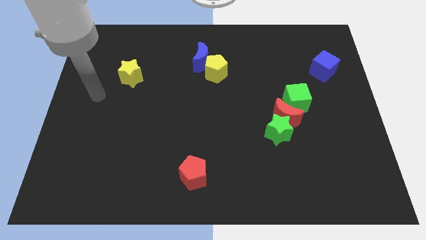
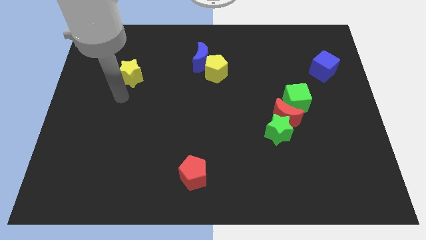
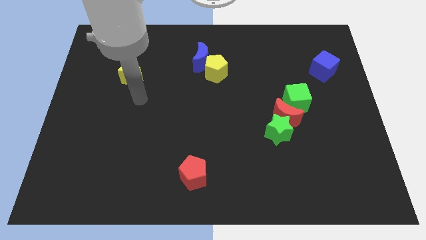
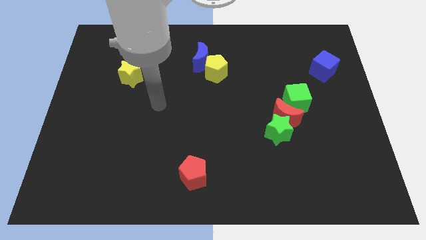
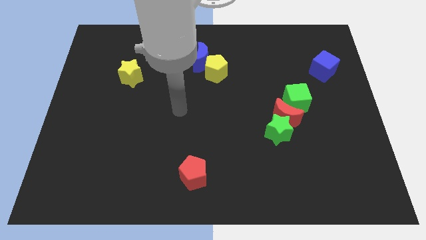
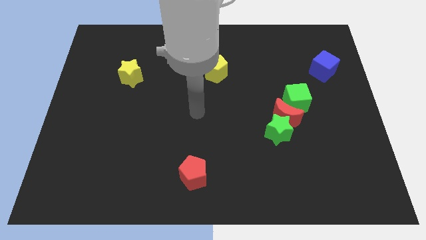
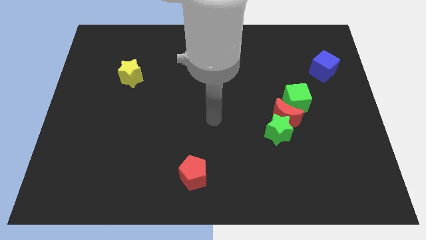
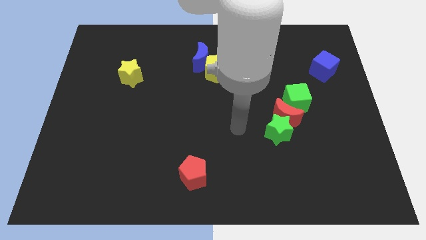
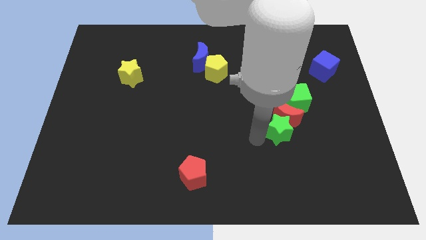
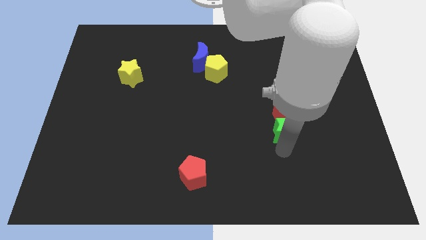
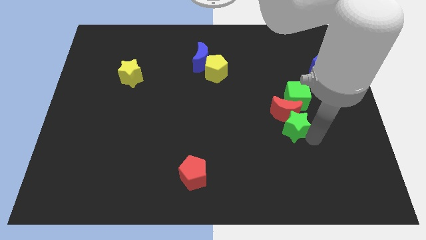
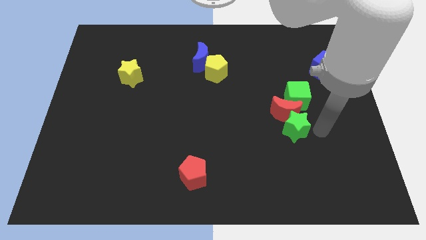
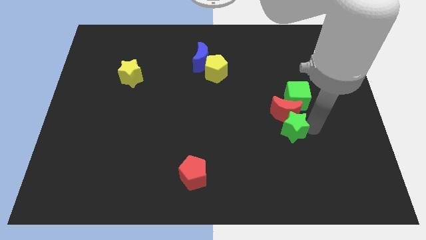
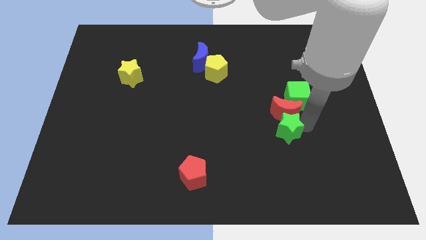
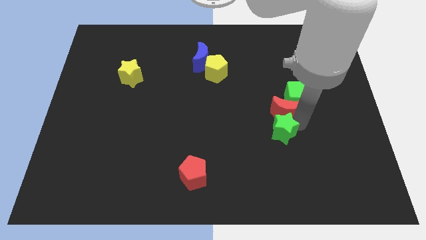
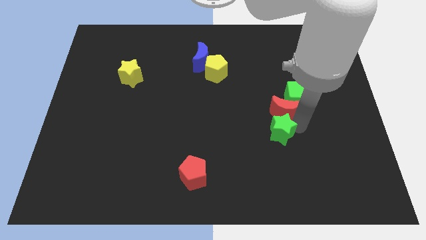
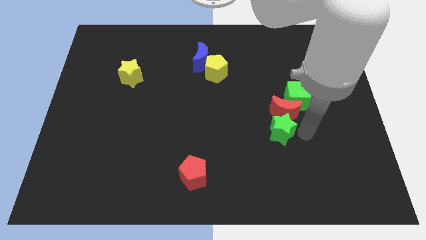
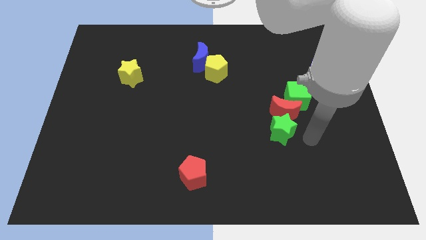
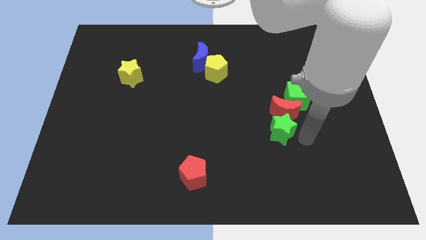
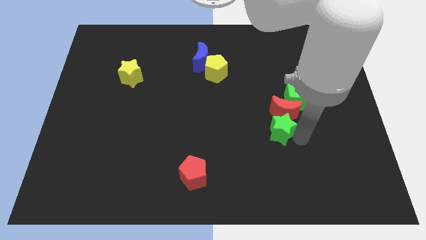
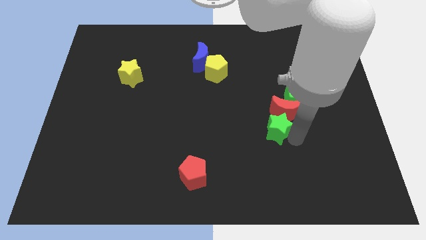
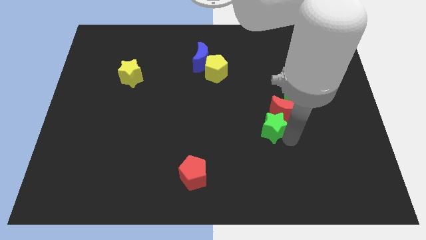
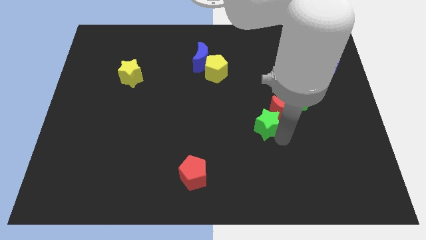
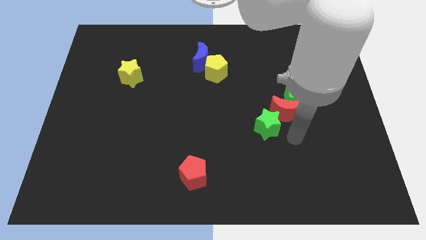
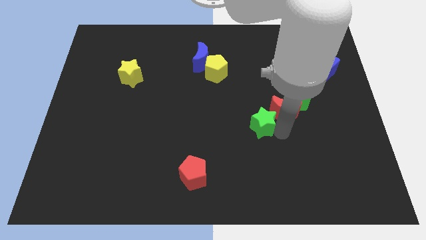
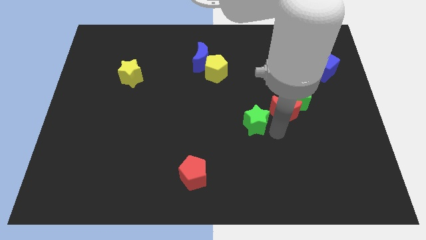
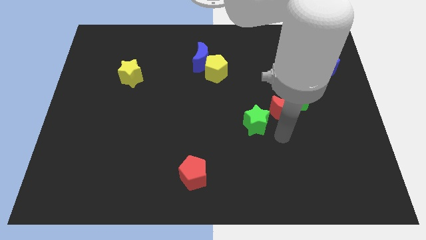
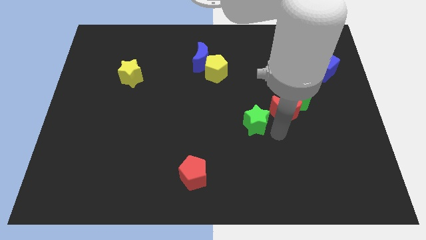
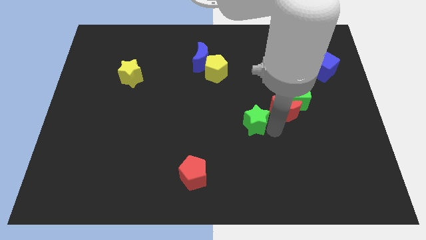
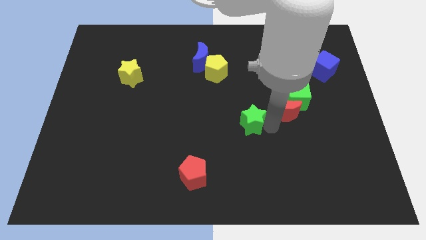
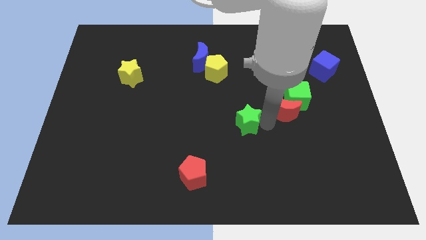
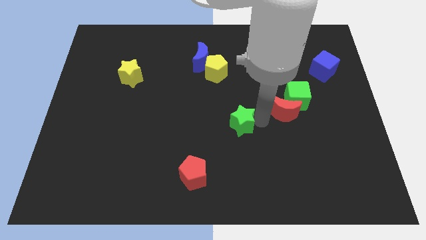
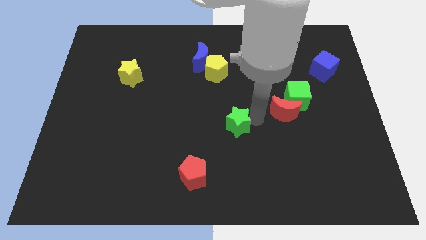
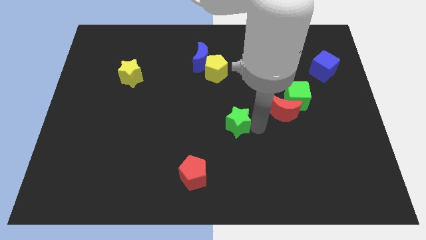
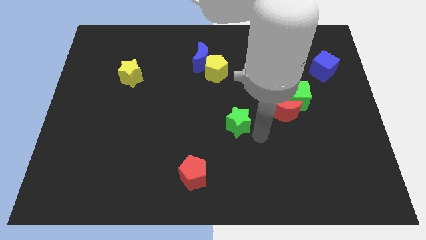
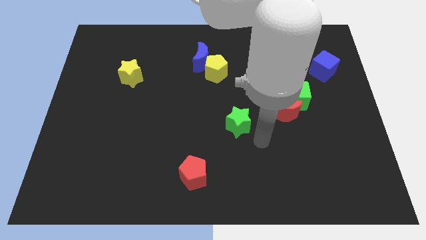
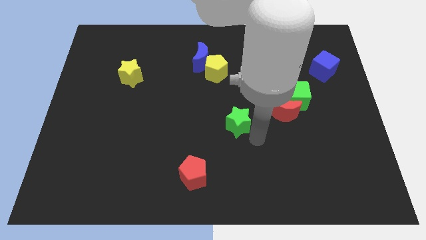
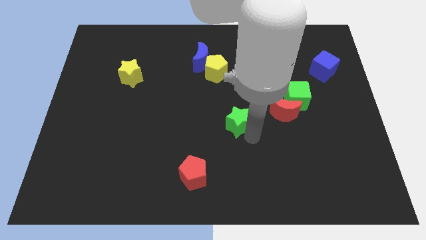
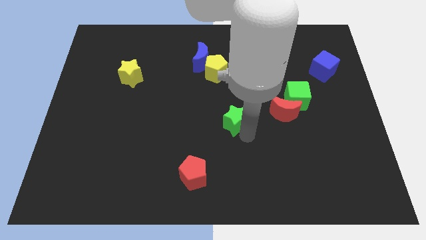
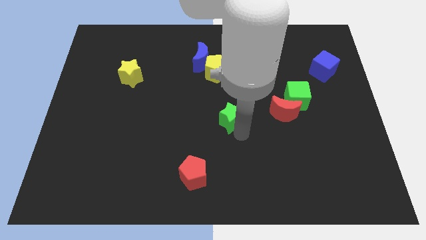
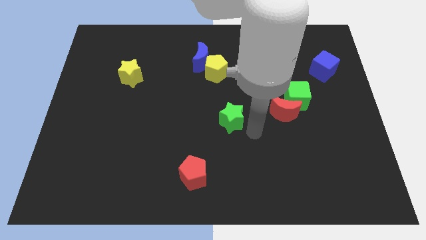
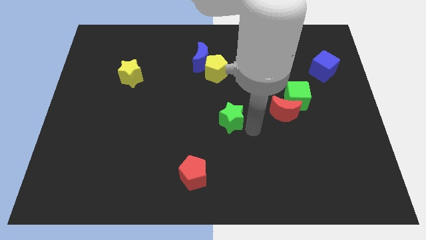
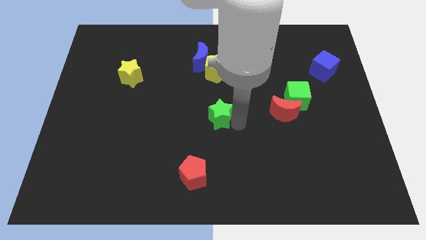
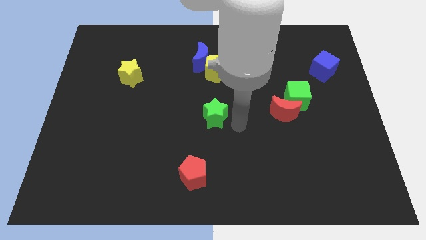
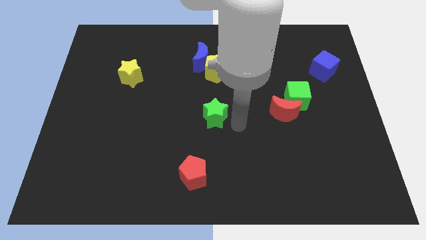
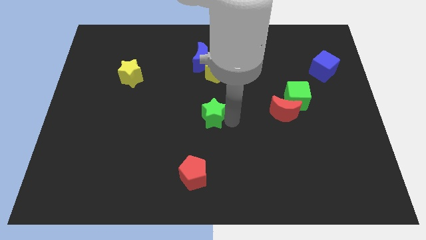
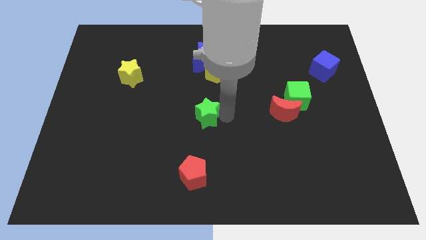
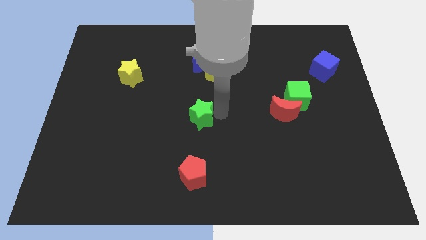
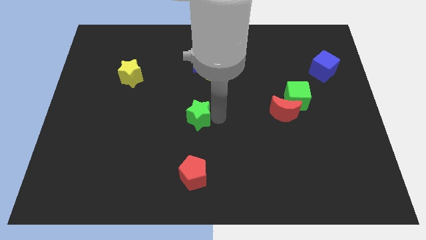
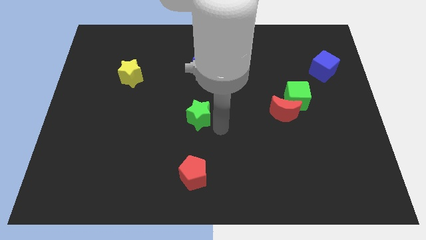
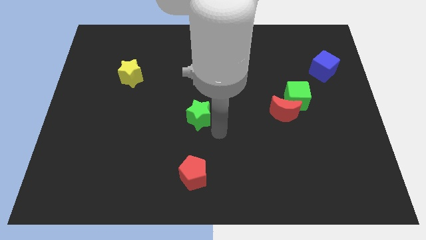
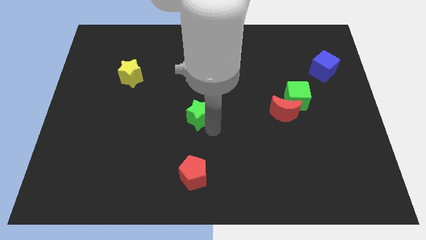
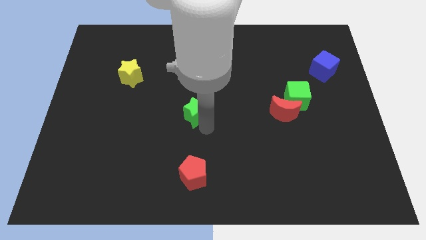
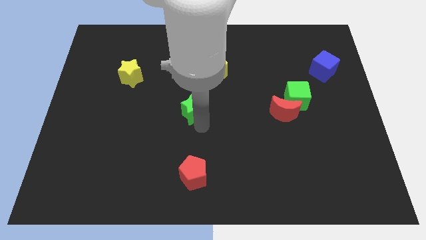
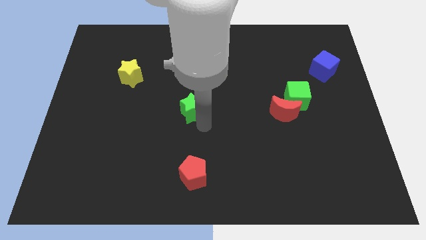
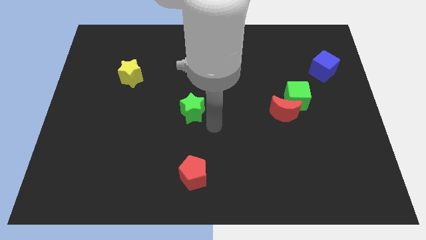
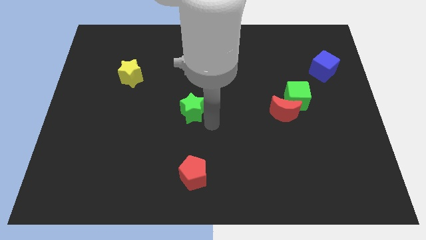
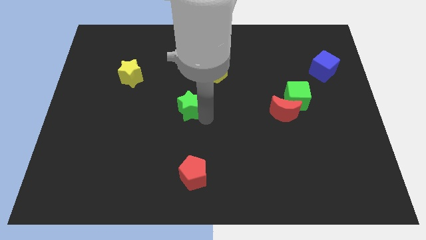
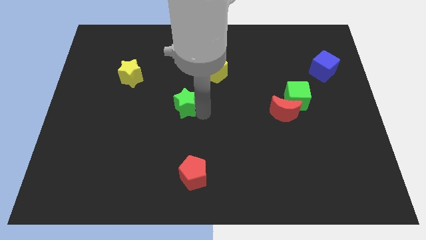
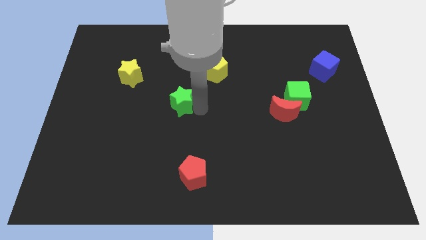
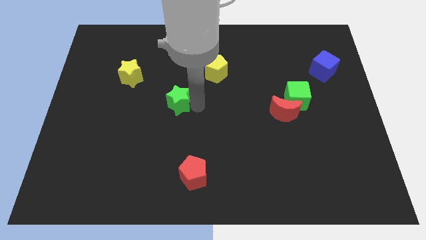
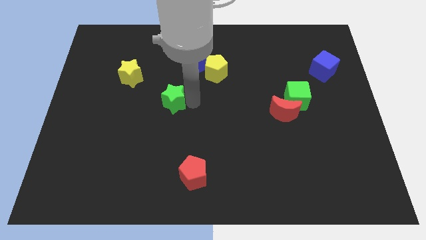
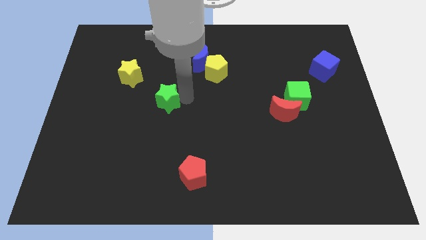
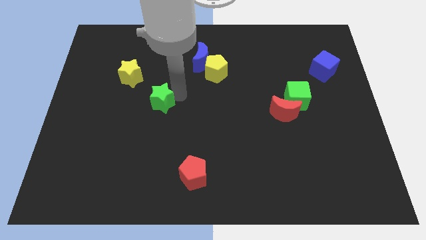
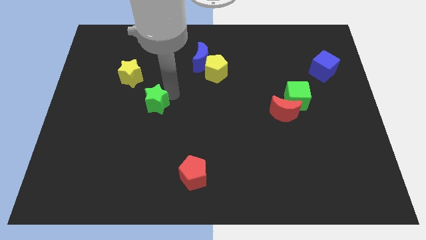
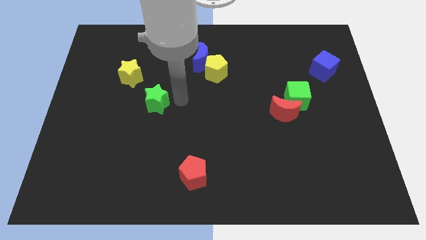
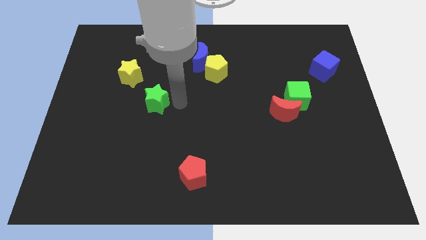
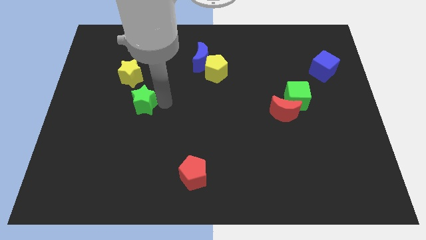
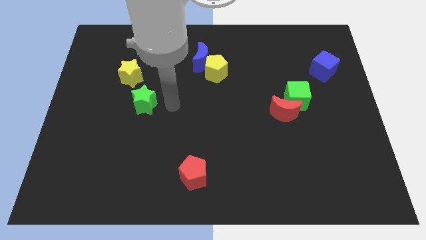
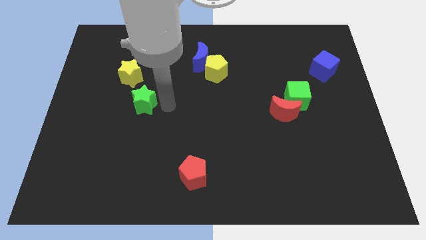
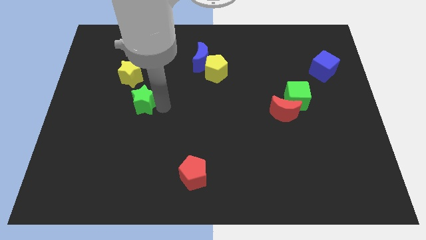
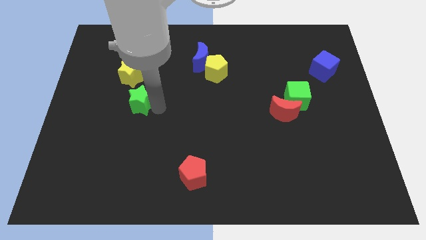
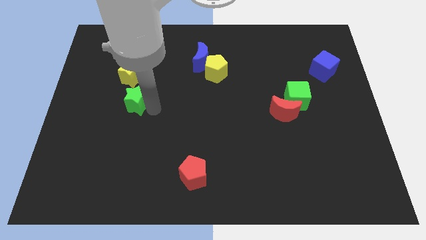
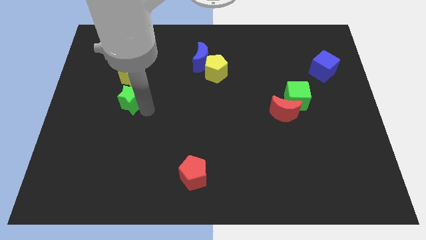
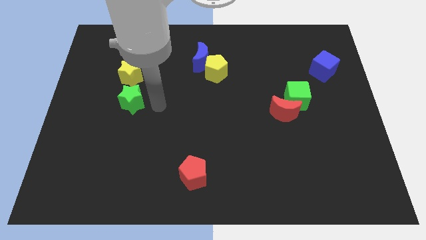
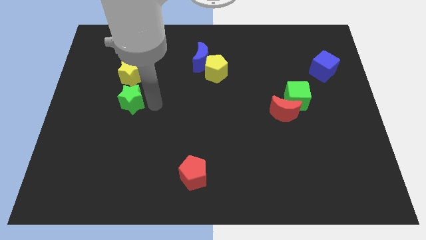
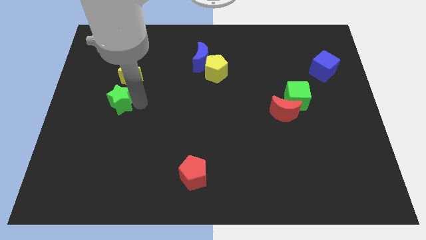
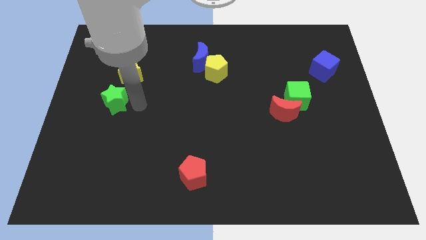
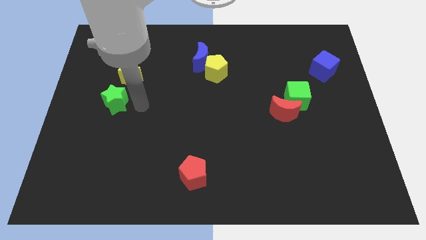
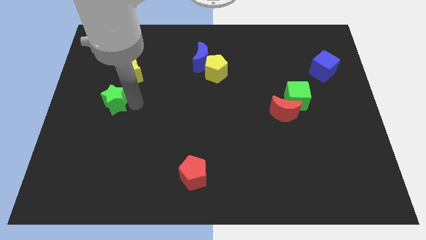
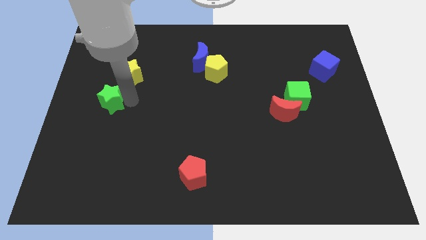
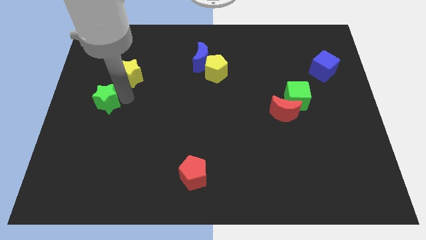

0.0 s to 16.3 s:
put the green star to the left side
